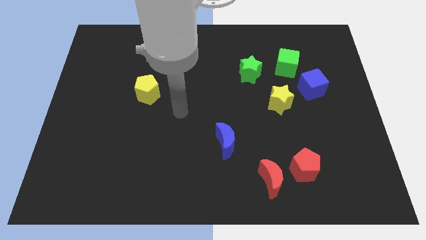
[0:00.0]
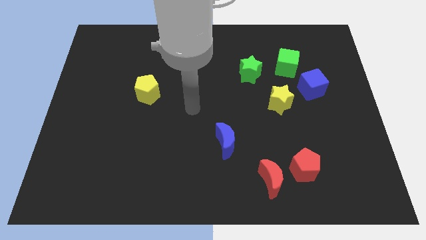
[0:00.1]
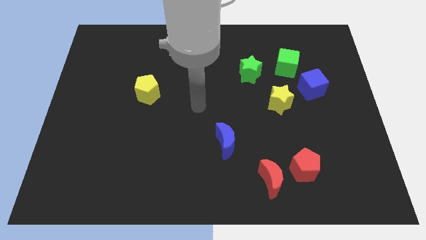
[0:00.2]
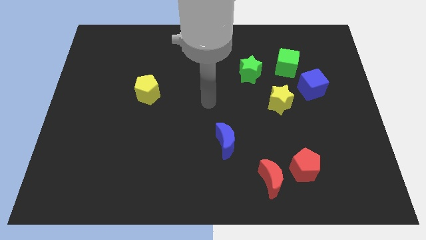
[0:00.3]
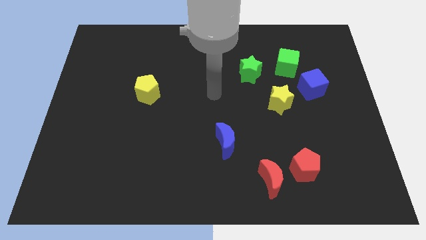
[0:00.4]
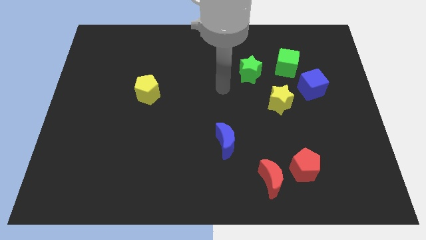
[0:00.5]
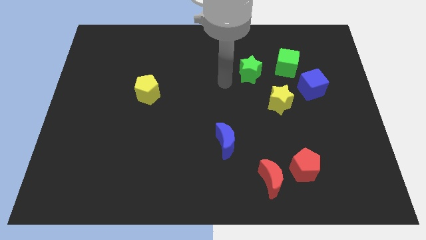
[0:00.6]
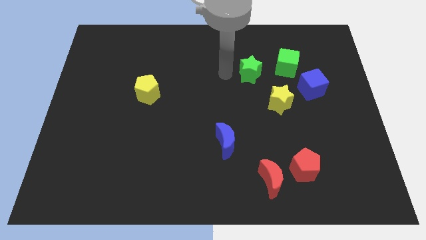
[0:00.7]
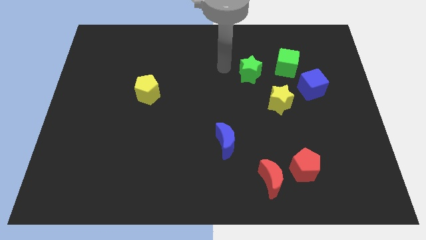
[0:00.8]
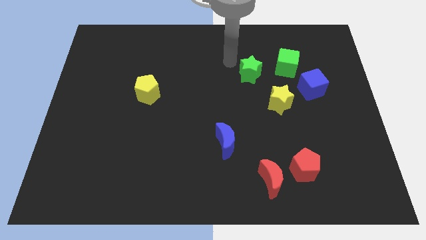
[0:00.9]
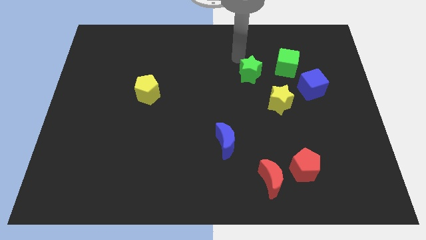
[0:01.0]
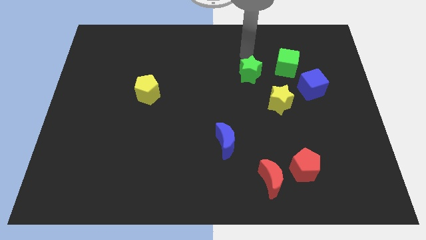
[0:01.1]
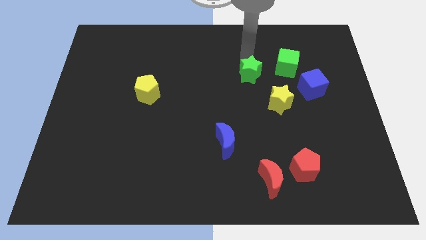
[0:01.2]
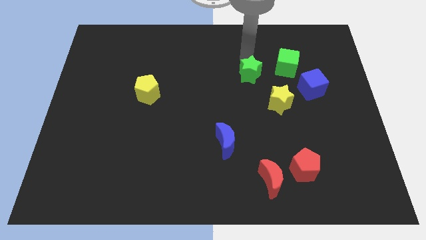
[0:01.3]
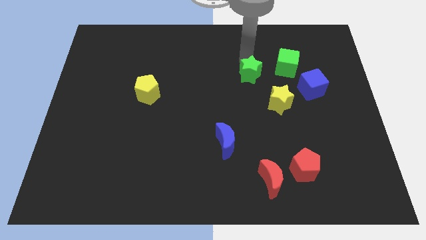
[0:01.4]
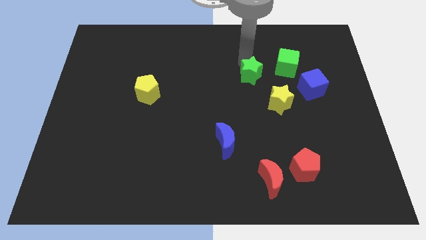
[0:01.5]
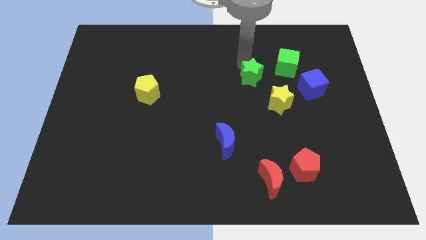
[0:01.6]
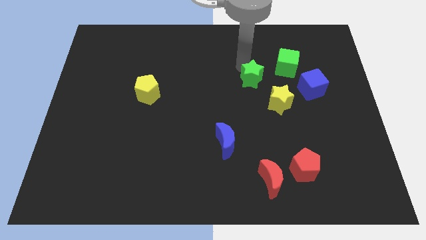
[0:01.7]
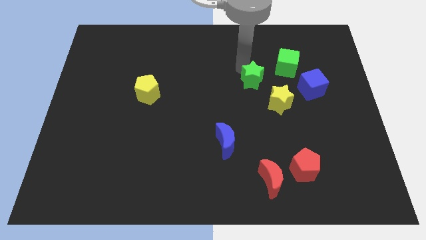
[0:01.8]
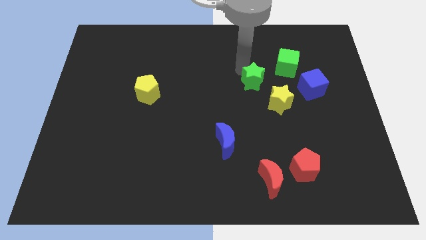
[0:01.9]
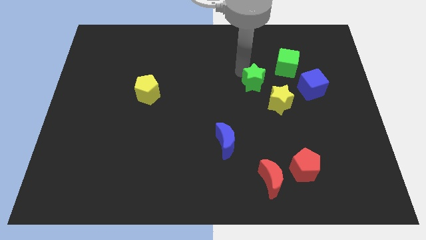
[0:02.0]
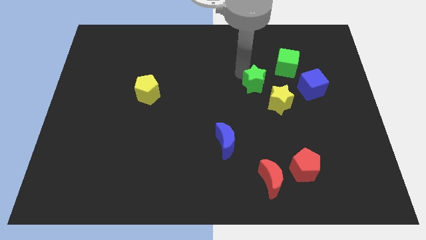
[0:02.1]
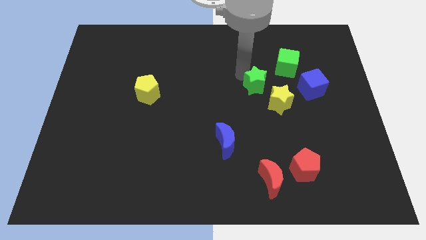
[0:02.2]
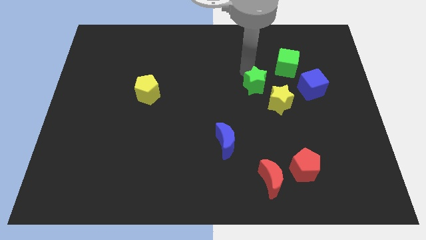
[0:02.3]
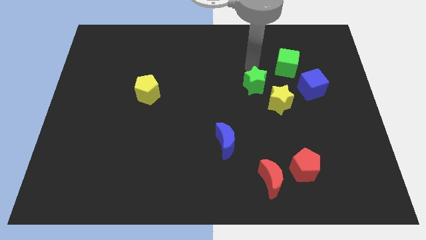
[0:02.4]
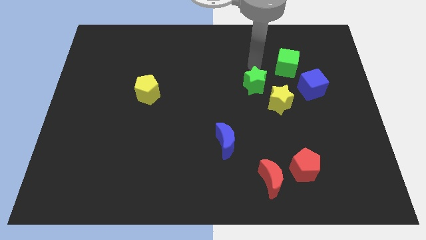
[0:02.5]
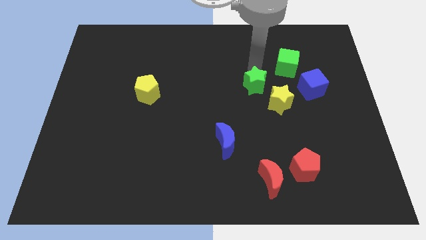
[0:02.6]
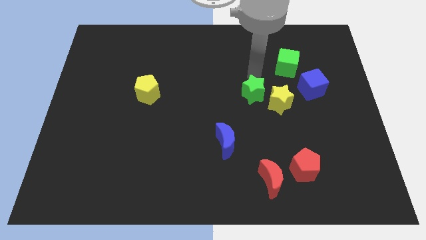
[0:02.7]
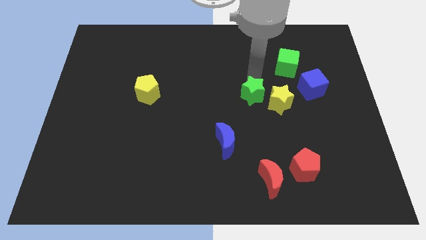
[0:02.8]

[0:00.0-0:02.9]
slightly push the green star down

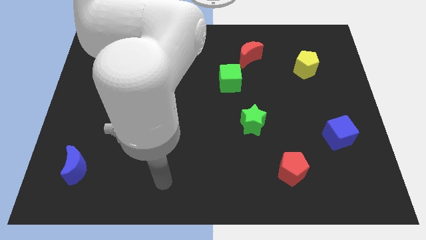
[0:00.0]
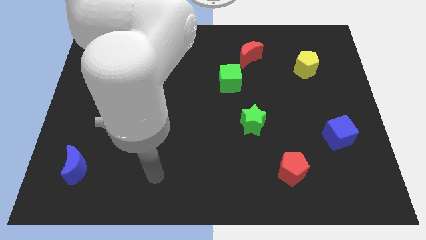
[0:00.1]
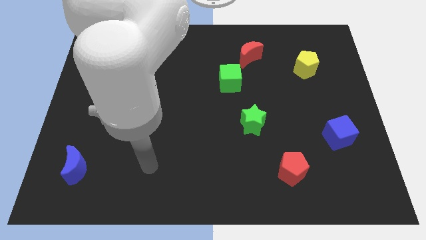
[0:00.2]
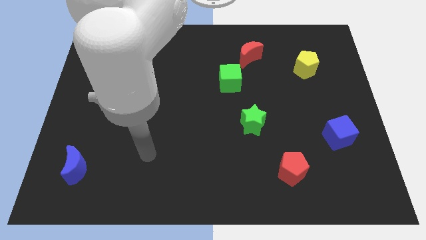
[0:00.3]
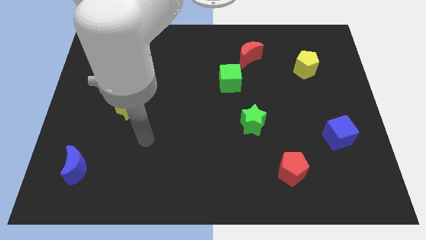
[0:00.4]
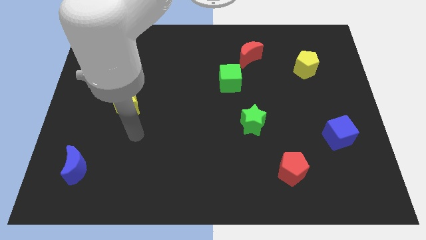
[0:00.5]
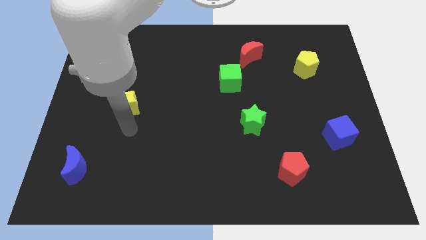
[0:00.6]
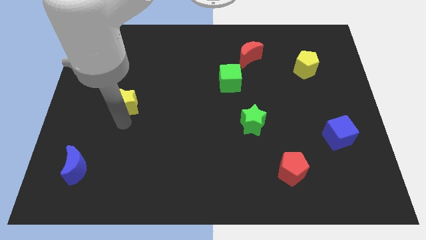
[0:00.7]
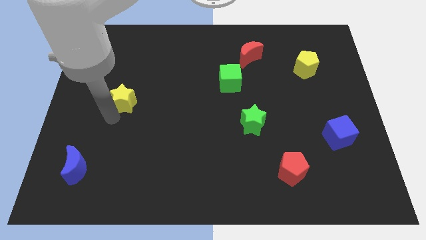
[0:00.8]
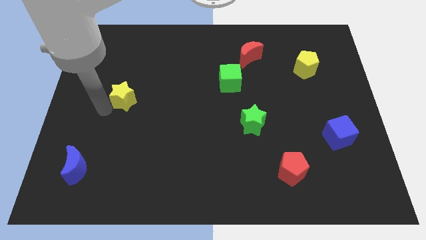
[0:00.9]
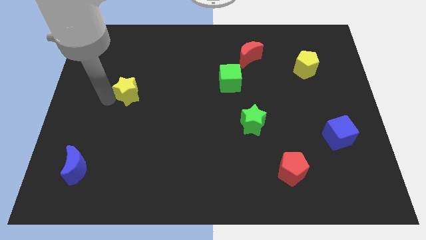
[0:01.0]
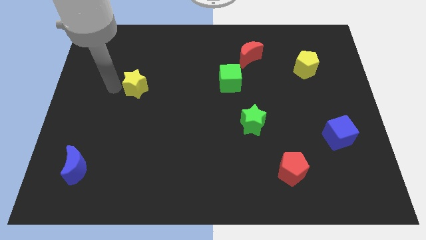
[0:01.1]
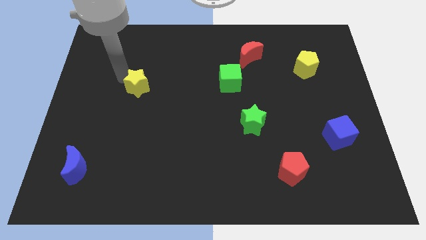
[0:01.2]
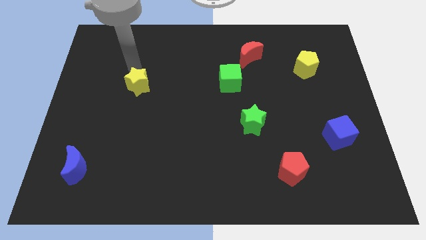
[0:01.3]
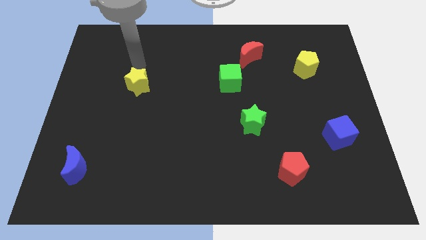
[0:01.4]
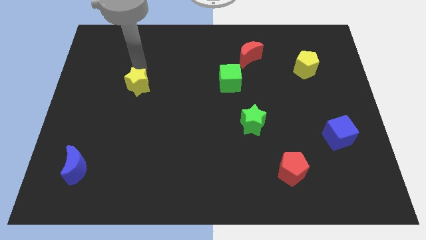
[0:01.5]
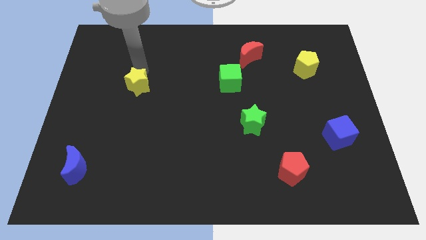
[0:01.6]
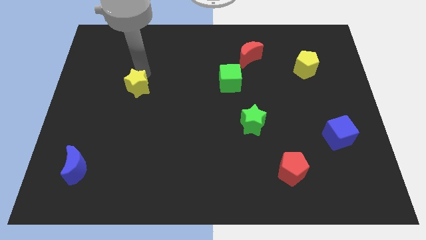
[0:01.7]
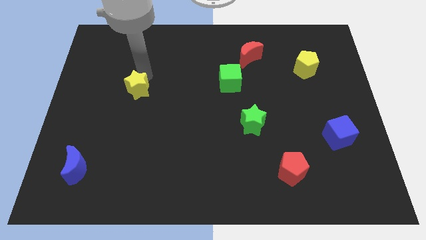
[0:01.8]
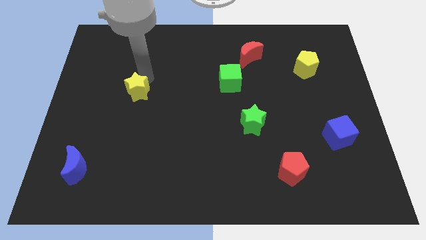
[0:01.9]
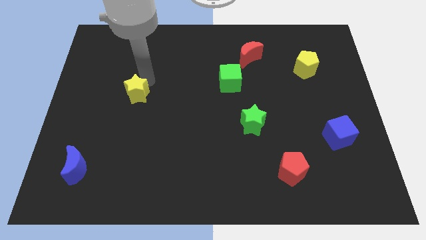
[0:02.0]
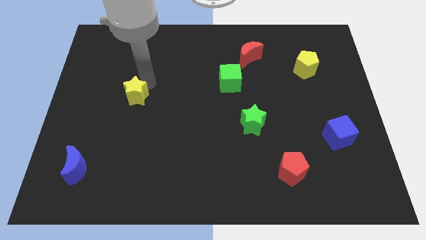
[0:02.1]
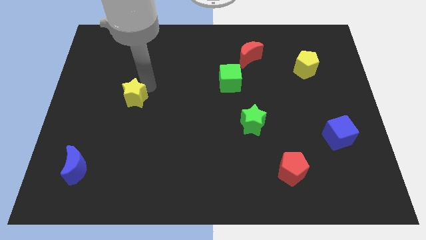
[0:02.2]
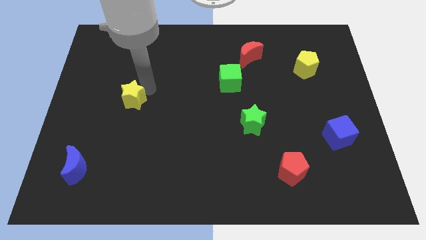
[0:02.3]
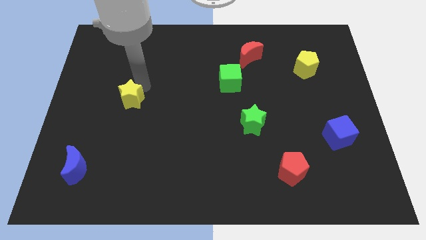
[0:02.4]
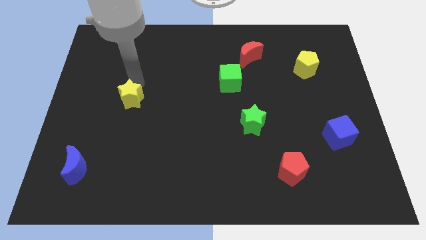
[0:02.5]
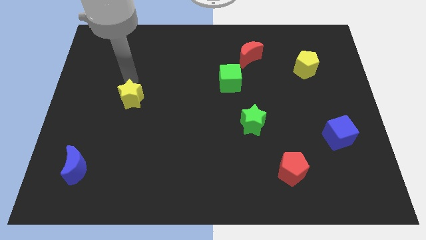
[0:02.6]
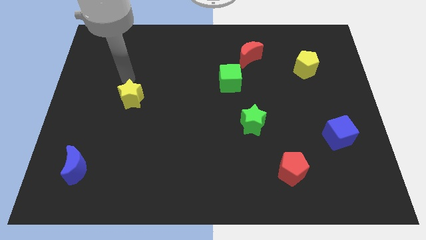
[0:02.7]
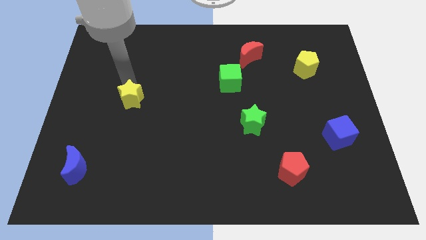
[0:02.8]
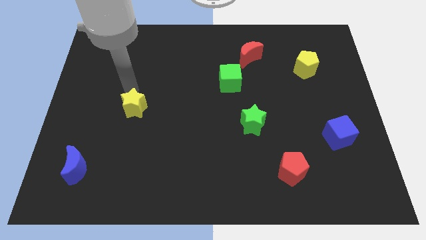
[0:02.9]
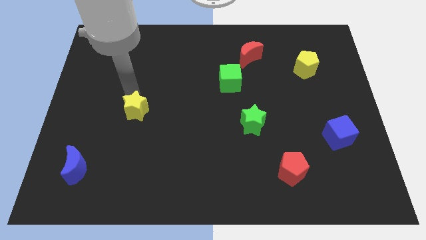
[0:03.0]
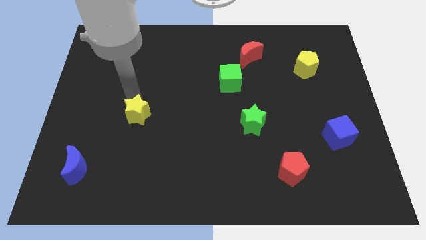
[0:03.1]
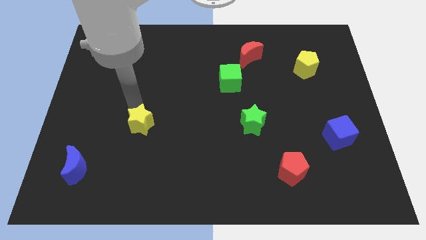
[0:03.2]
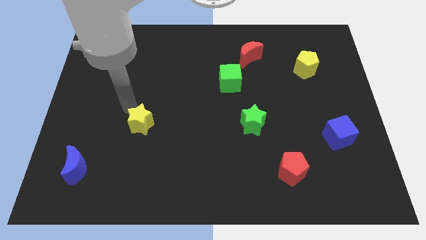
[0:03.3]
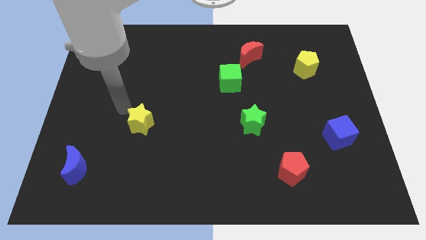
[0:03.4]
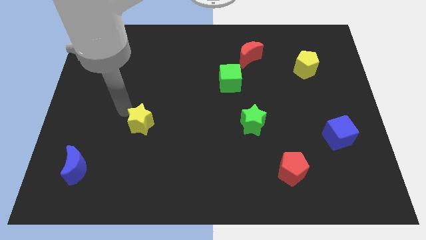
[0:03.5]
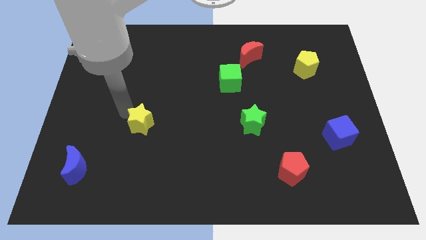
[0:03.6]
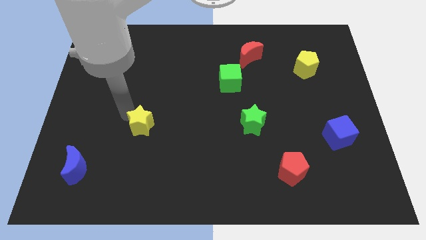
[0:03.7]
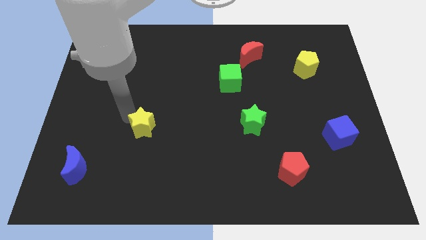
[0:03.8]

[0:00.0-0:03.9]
slide the yellow star a bit diagonally downwards and right

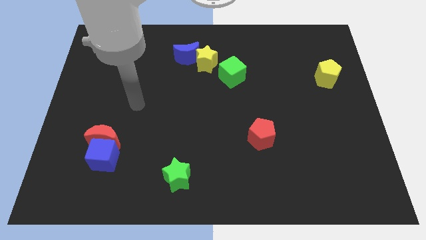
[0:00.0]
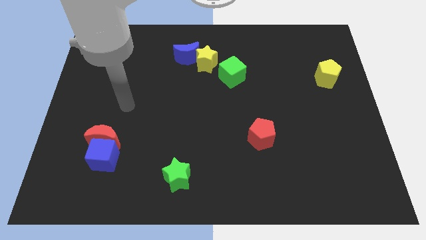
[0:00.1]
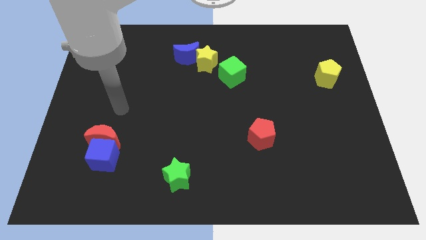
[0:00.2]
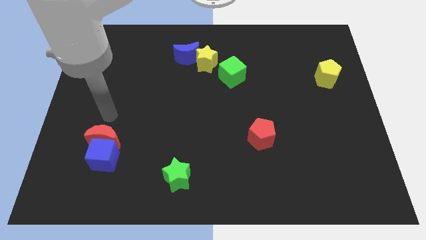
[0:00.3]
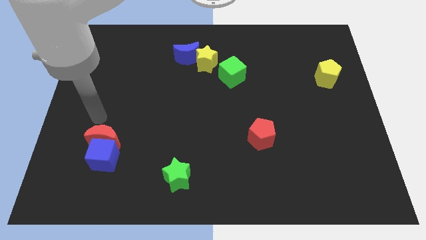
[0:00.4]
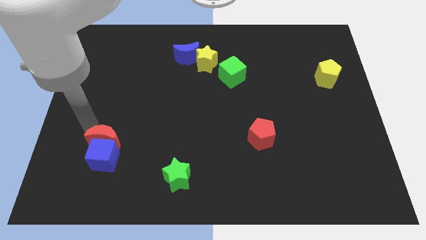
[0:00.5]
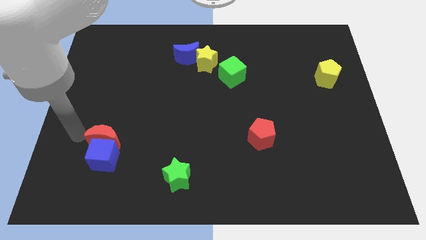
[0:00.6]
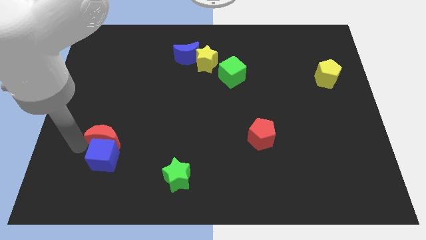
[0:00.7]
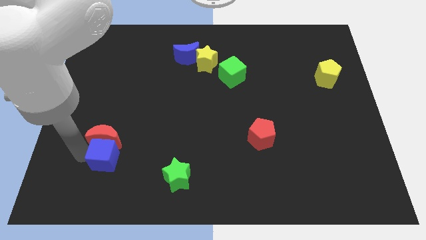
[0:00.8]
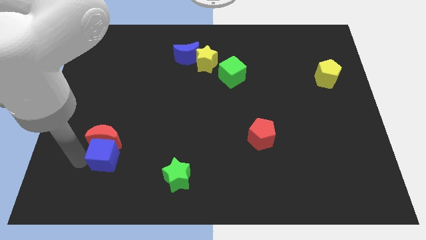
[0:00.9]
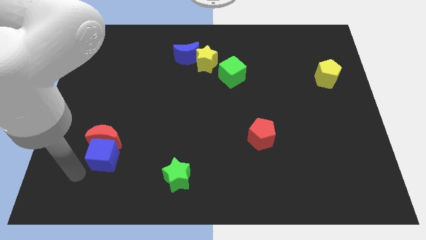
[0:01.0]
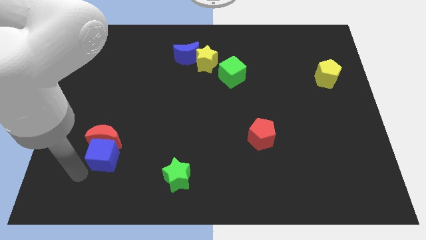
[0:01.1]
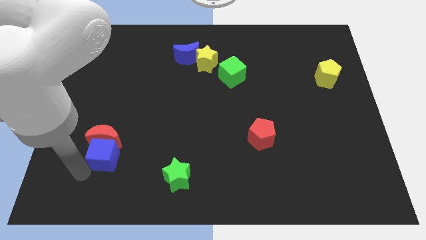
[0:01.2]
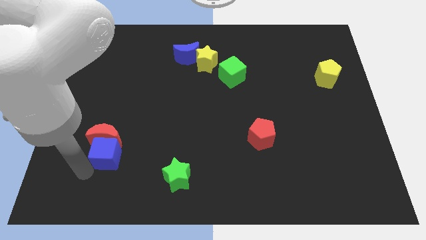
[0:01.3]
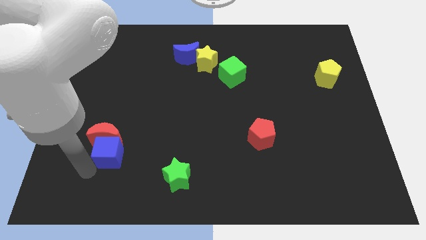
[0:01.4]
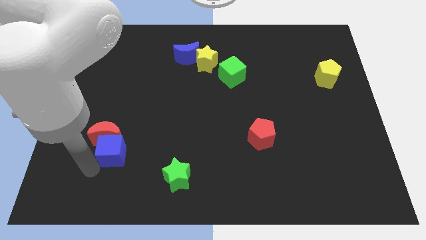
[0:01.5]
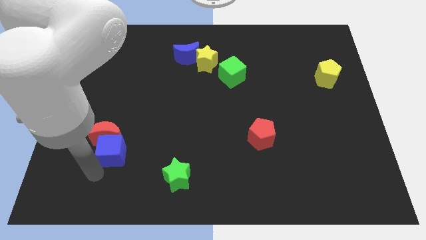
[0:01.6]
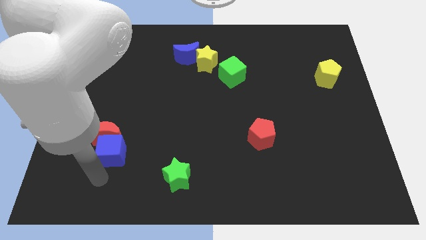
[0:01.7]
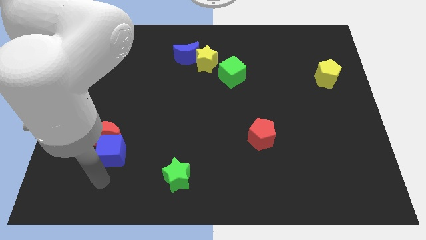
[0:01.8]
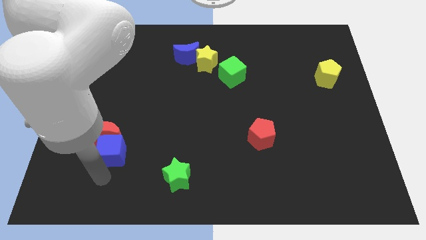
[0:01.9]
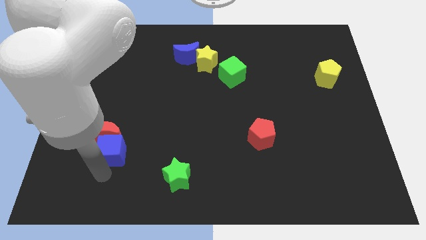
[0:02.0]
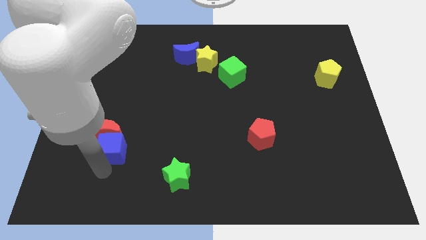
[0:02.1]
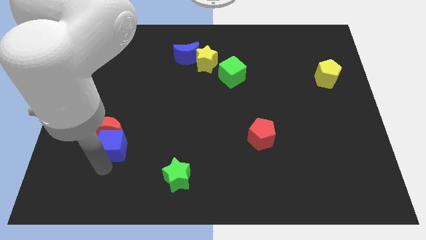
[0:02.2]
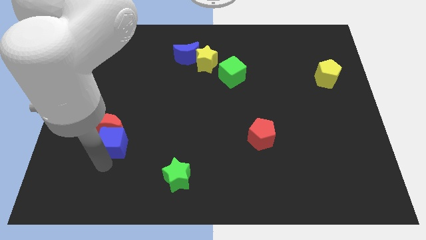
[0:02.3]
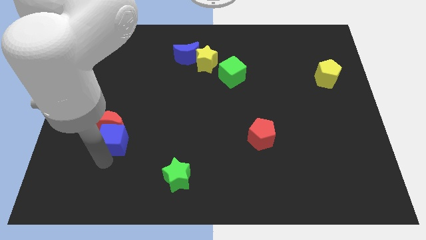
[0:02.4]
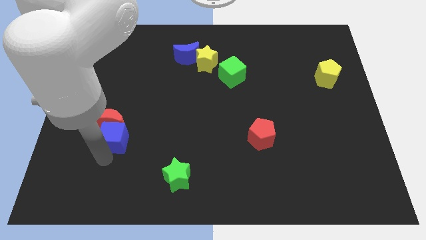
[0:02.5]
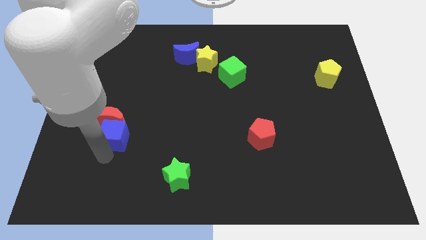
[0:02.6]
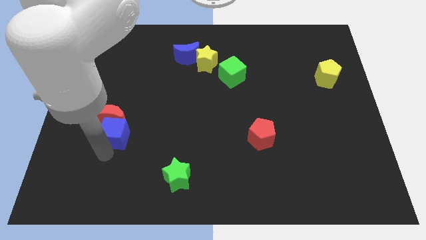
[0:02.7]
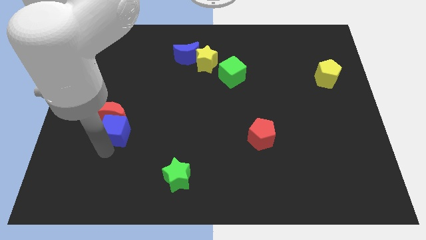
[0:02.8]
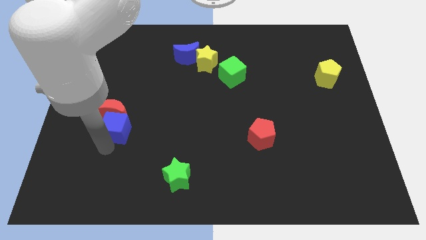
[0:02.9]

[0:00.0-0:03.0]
slightly push the blue cube up
